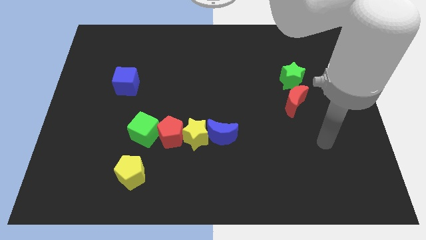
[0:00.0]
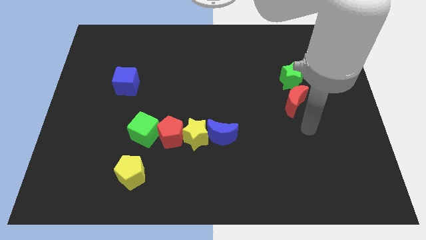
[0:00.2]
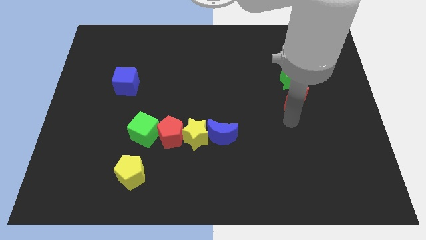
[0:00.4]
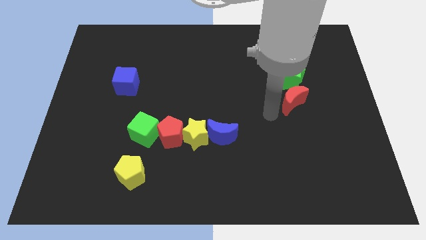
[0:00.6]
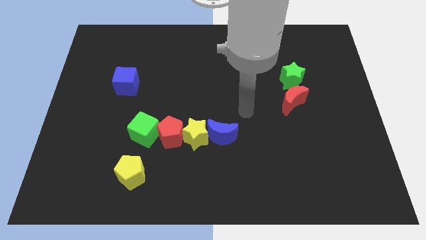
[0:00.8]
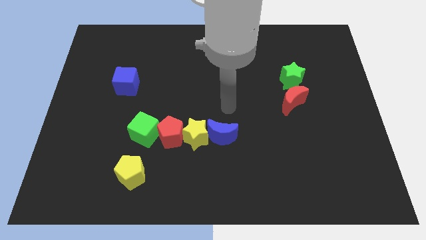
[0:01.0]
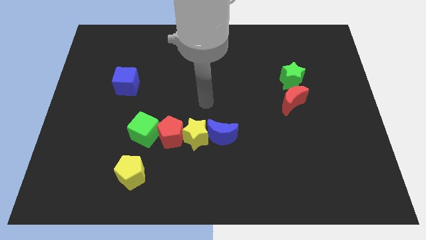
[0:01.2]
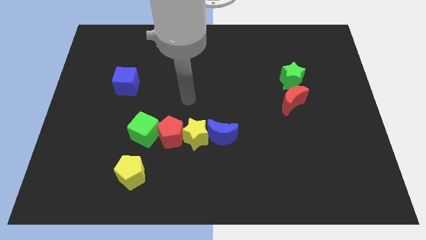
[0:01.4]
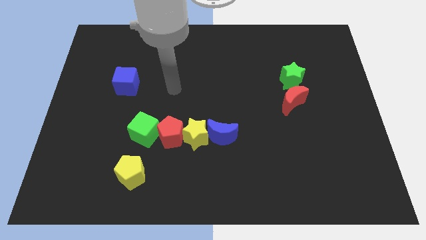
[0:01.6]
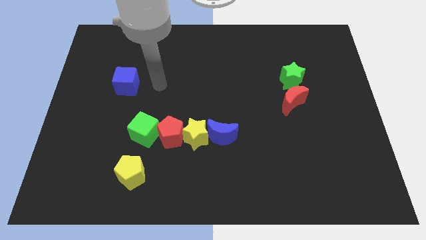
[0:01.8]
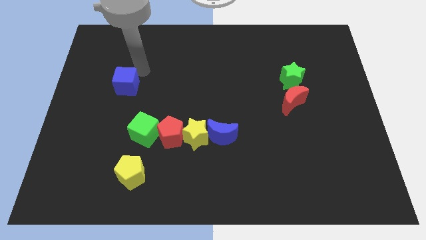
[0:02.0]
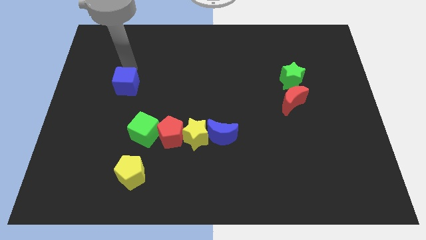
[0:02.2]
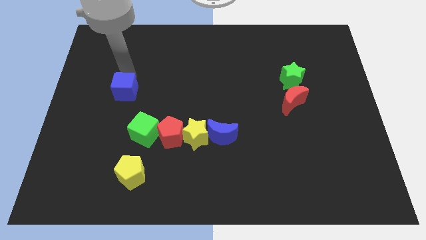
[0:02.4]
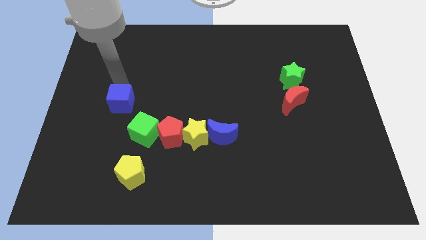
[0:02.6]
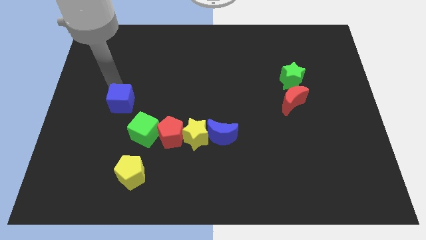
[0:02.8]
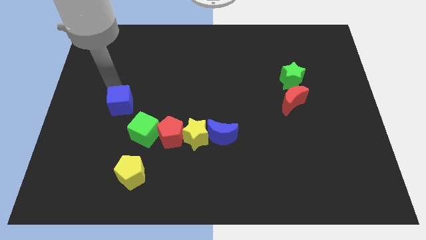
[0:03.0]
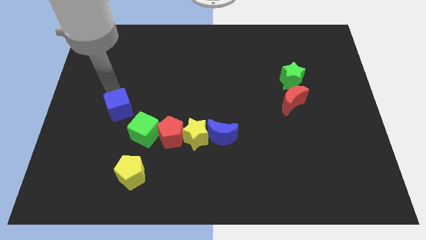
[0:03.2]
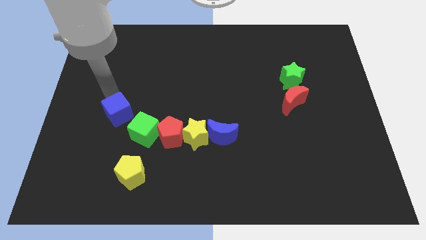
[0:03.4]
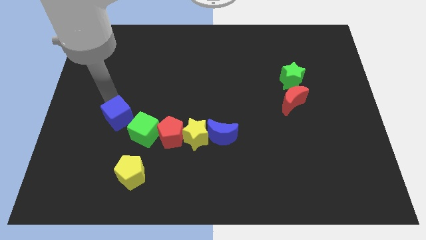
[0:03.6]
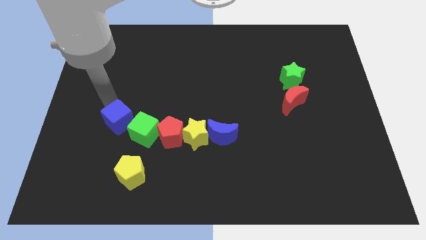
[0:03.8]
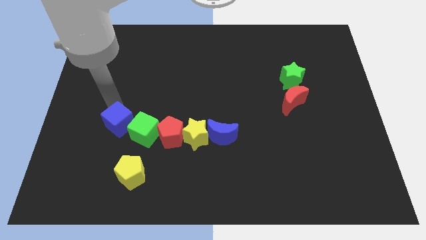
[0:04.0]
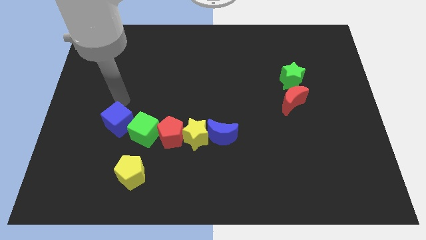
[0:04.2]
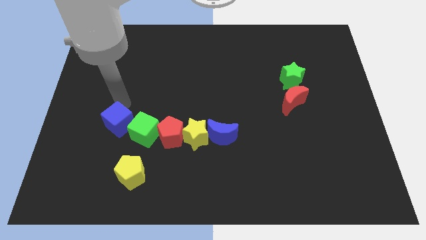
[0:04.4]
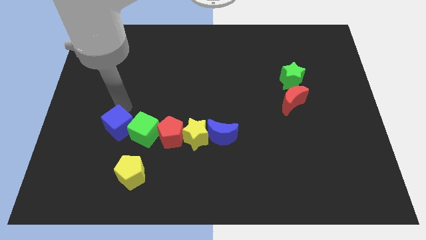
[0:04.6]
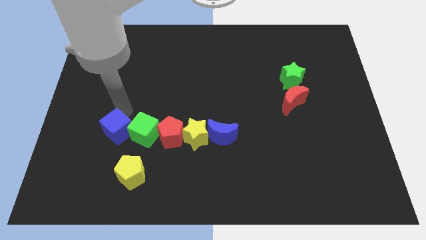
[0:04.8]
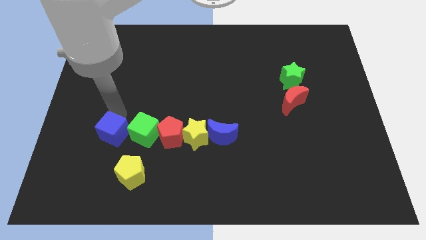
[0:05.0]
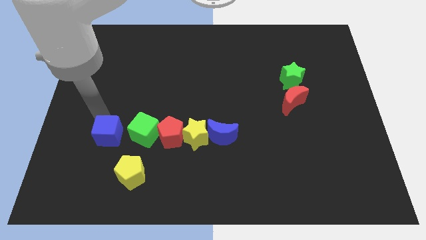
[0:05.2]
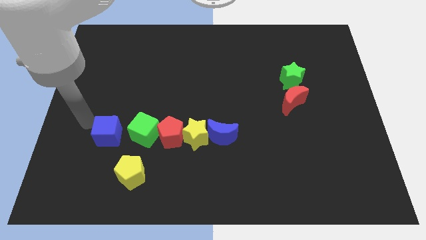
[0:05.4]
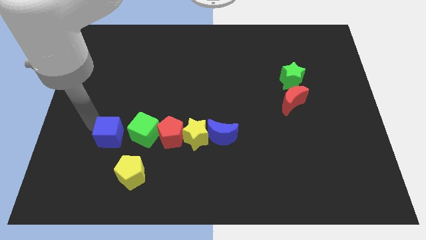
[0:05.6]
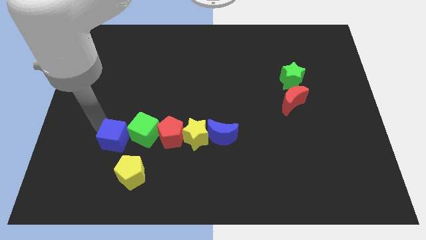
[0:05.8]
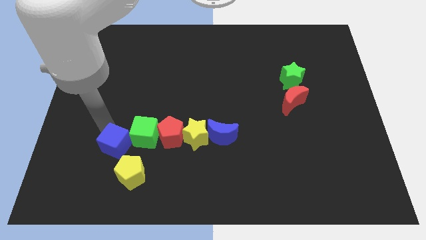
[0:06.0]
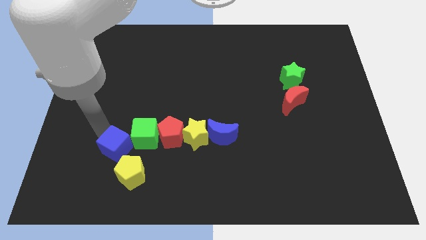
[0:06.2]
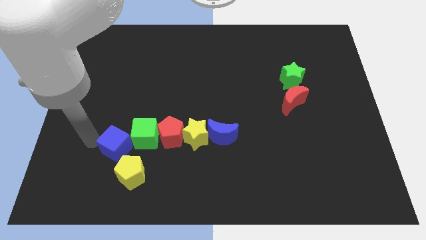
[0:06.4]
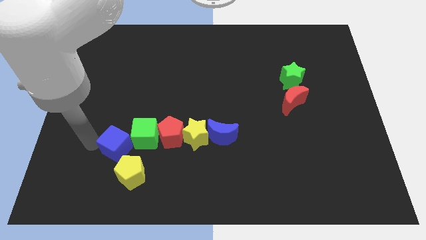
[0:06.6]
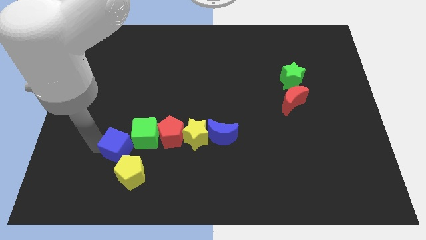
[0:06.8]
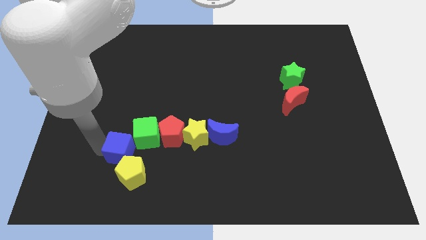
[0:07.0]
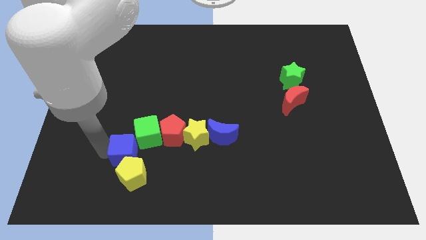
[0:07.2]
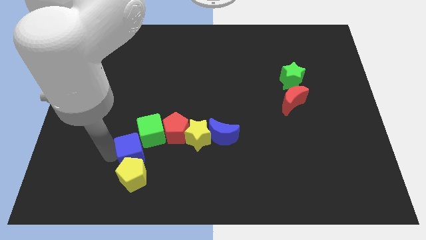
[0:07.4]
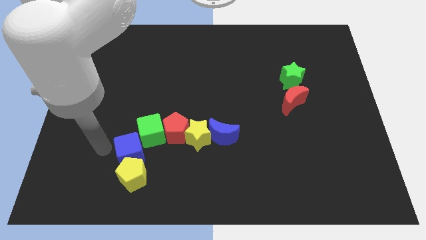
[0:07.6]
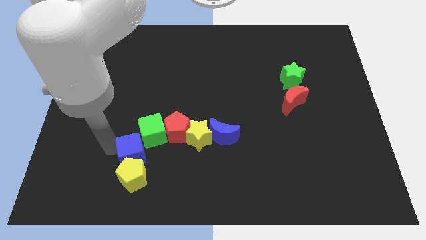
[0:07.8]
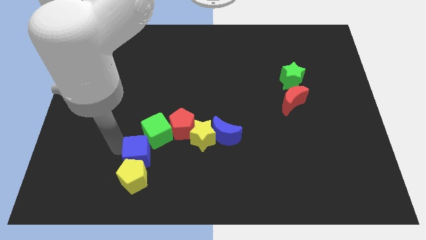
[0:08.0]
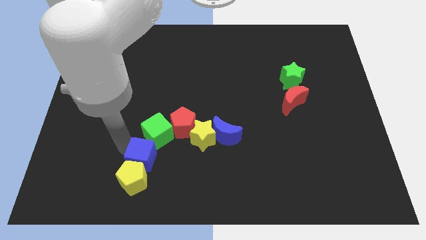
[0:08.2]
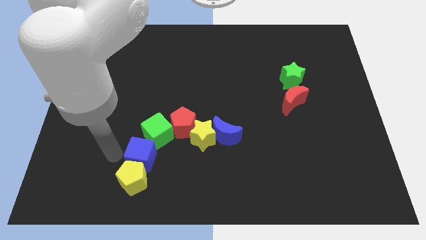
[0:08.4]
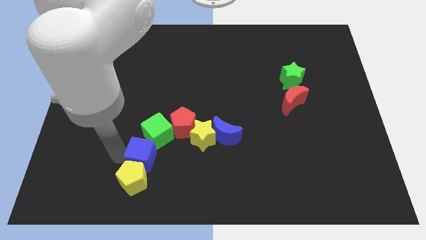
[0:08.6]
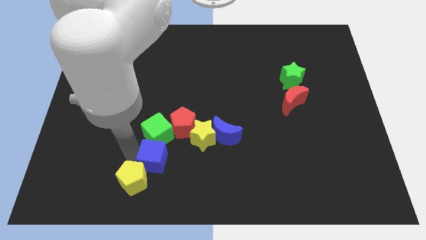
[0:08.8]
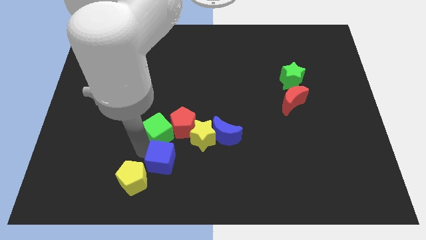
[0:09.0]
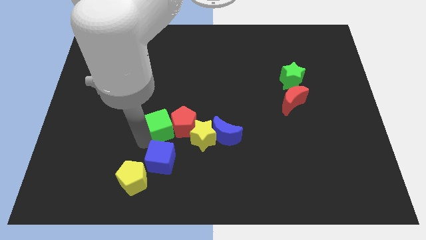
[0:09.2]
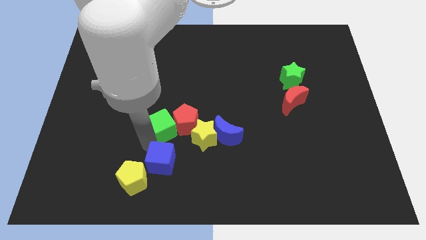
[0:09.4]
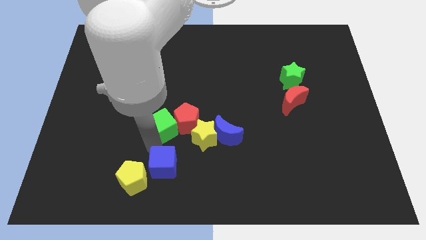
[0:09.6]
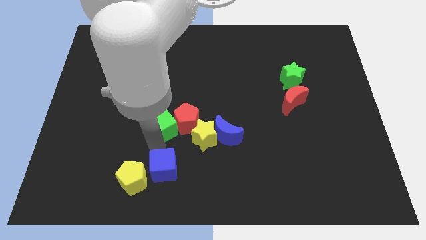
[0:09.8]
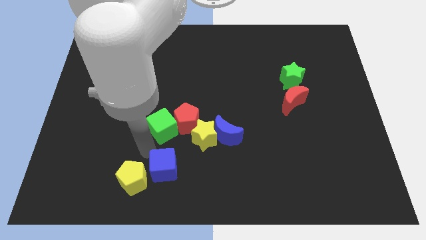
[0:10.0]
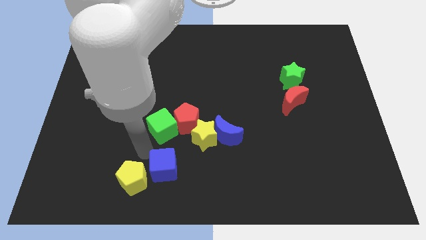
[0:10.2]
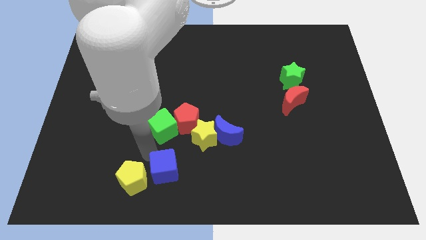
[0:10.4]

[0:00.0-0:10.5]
put the blue cube to the bottom side
